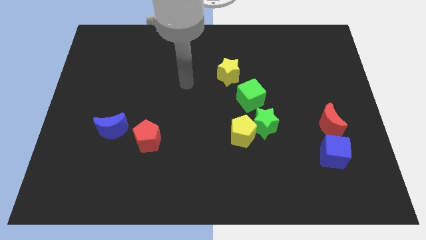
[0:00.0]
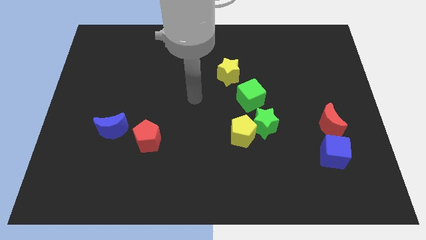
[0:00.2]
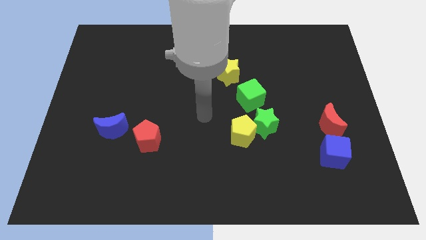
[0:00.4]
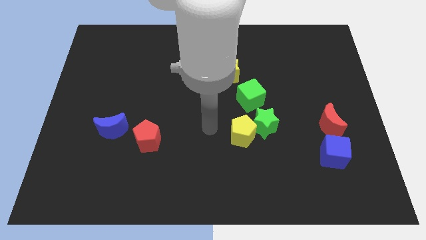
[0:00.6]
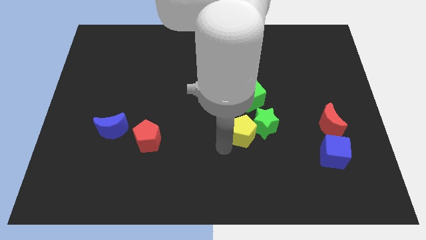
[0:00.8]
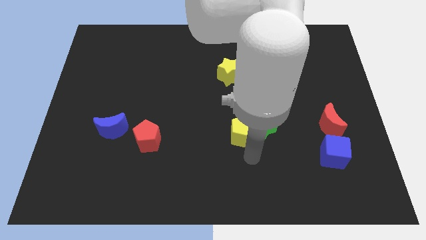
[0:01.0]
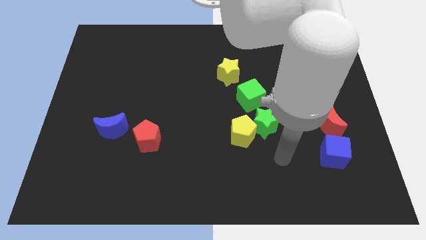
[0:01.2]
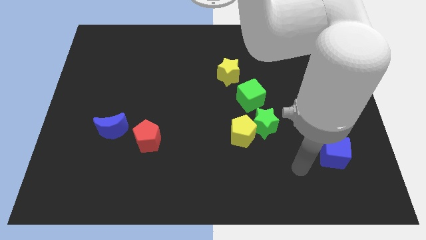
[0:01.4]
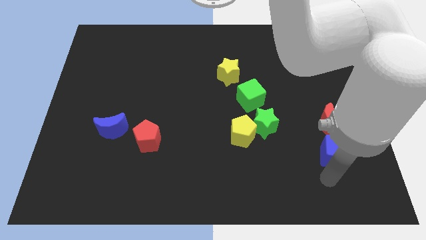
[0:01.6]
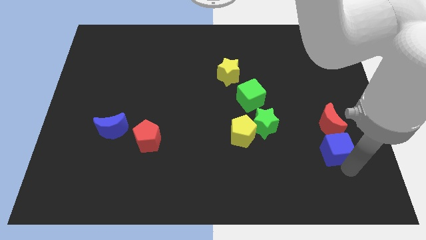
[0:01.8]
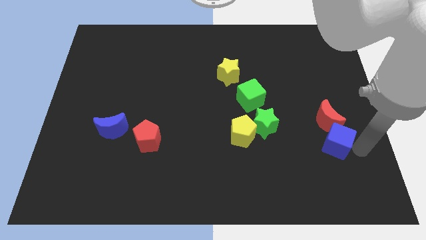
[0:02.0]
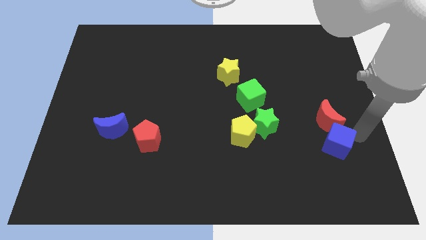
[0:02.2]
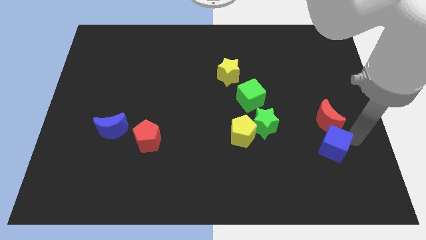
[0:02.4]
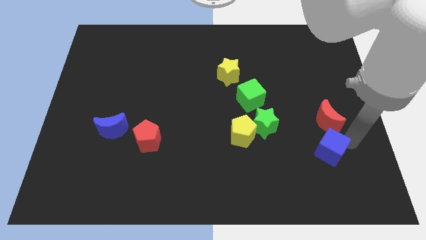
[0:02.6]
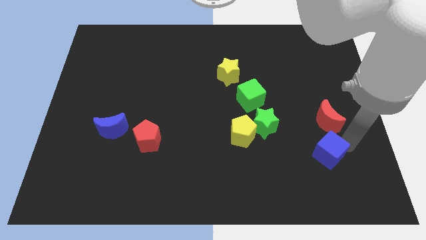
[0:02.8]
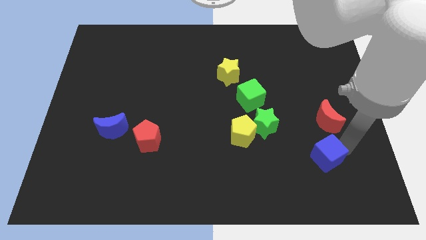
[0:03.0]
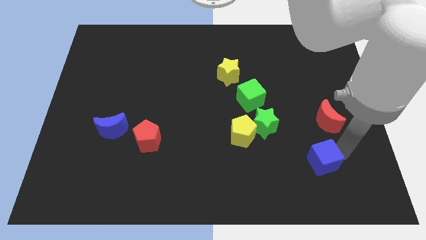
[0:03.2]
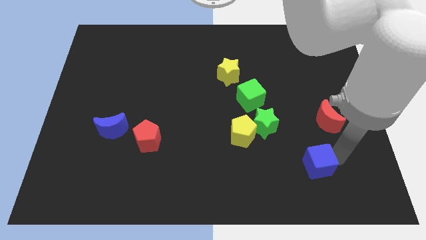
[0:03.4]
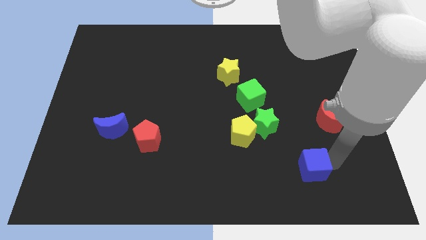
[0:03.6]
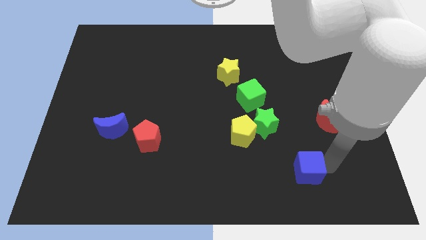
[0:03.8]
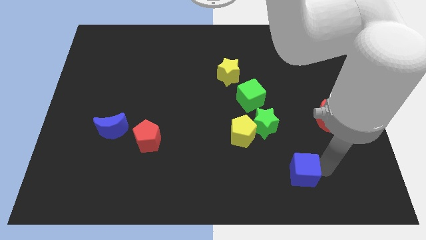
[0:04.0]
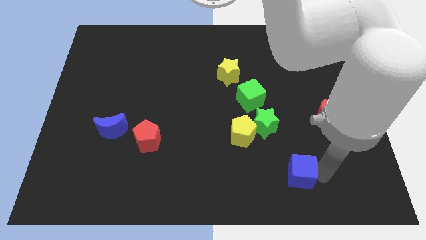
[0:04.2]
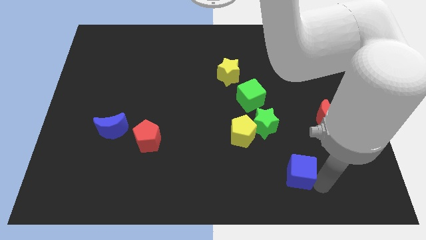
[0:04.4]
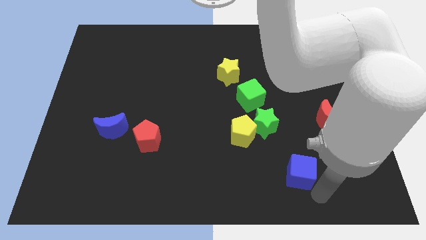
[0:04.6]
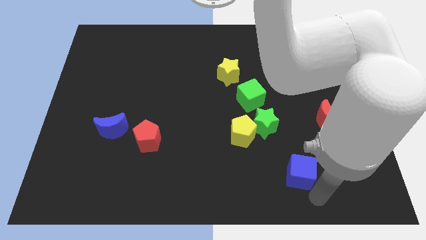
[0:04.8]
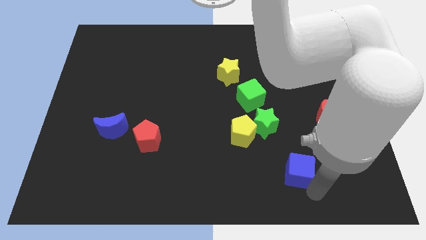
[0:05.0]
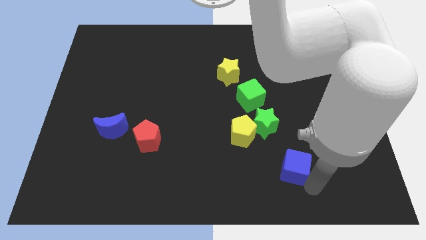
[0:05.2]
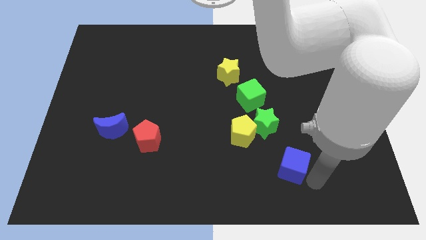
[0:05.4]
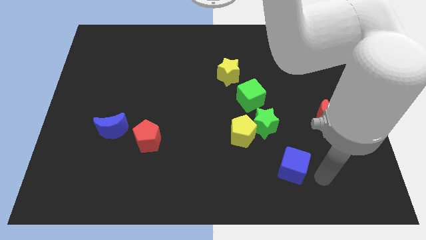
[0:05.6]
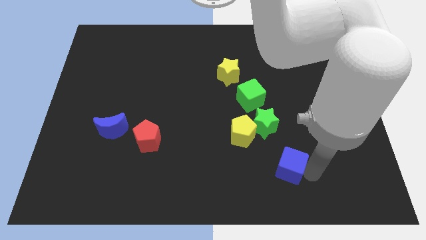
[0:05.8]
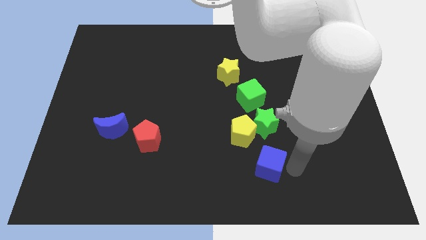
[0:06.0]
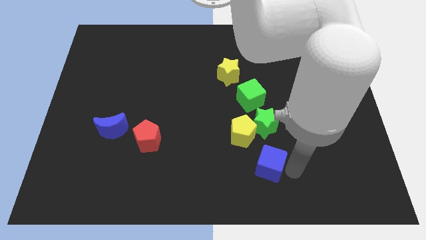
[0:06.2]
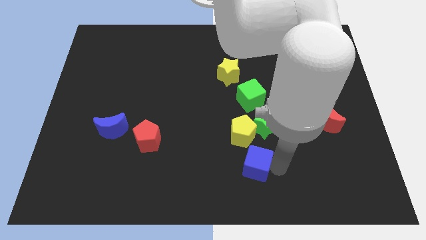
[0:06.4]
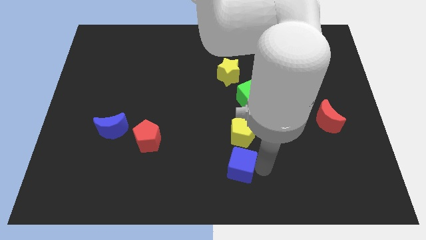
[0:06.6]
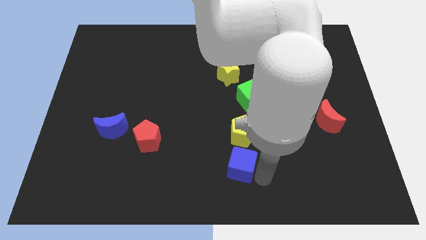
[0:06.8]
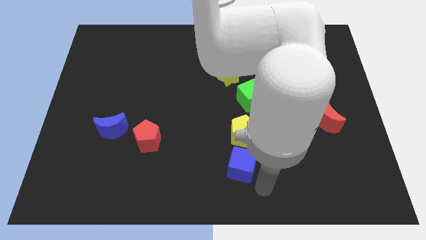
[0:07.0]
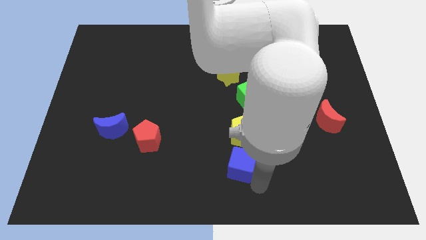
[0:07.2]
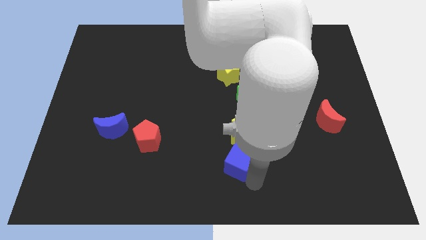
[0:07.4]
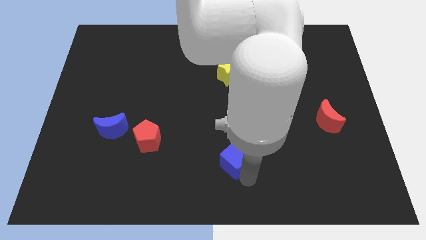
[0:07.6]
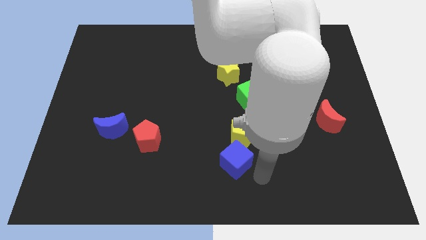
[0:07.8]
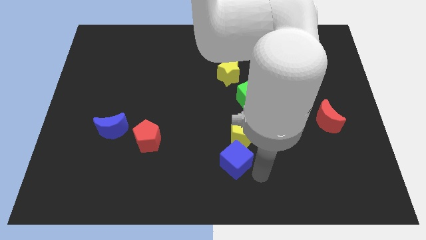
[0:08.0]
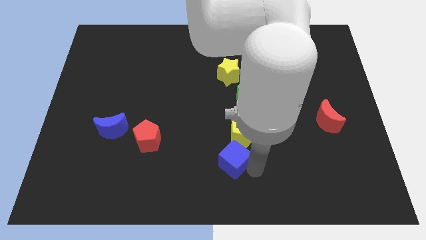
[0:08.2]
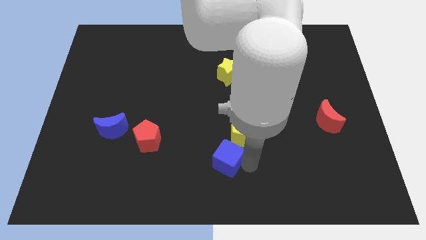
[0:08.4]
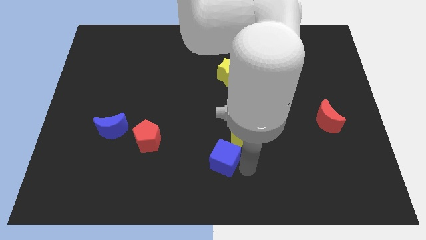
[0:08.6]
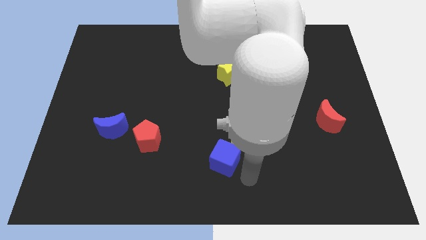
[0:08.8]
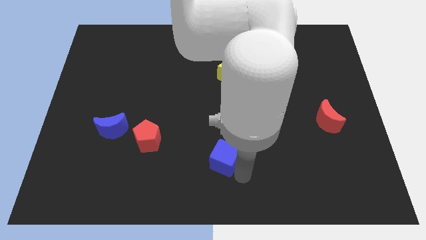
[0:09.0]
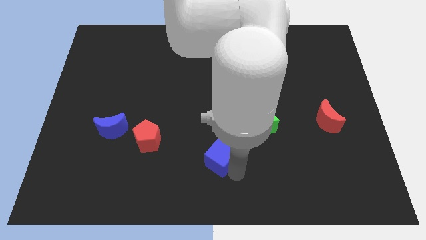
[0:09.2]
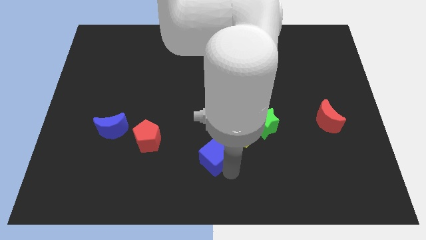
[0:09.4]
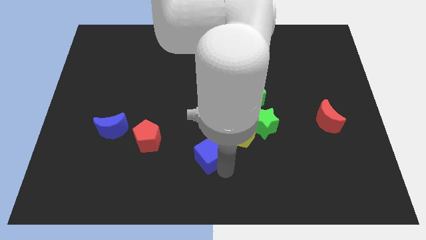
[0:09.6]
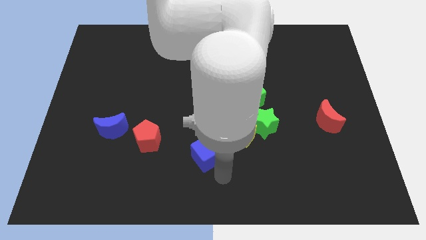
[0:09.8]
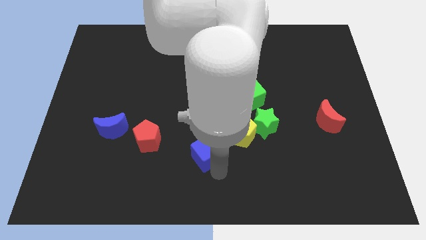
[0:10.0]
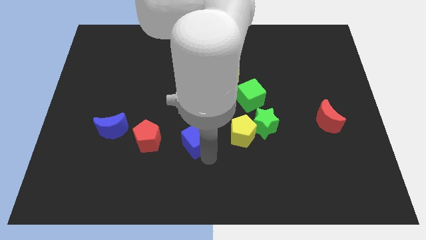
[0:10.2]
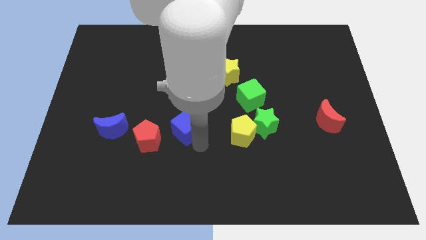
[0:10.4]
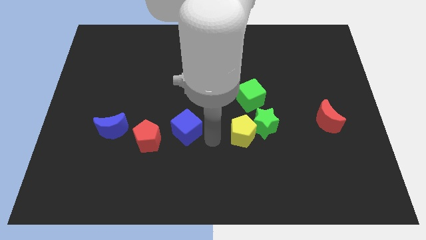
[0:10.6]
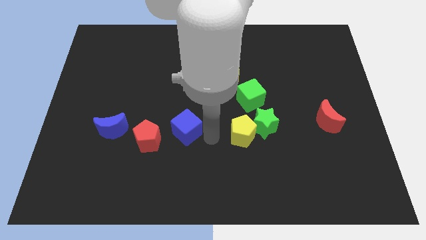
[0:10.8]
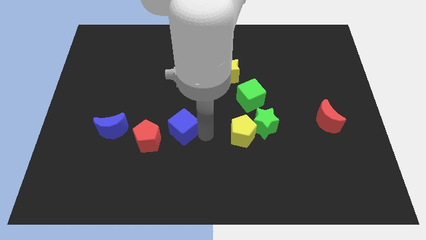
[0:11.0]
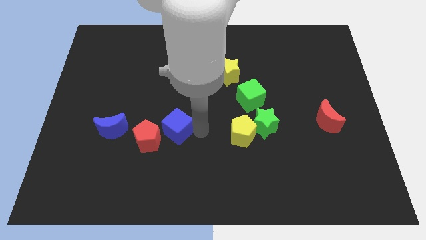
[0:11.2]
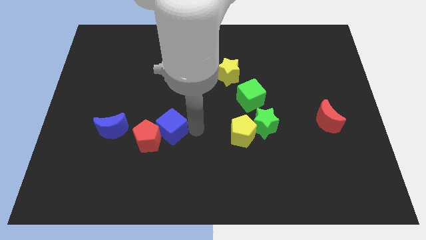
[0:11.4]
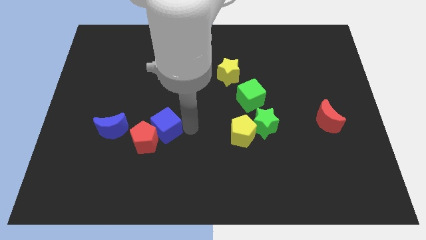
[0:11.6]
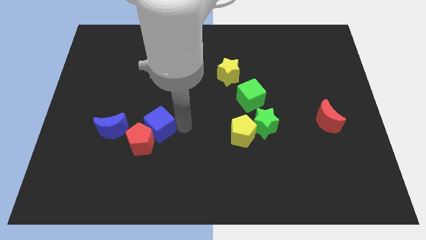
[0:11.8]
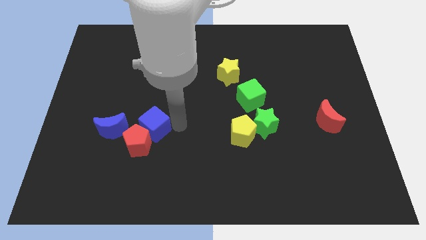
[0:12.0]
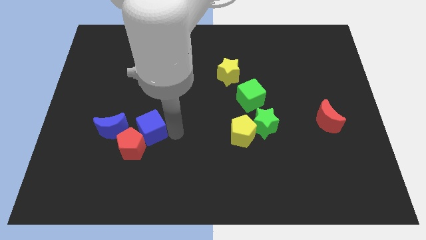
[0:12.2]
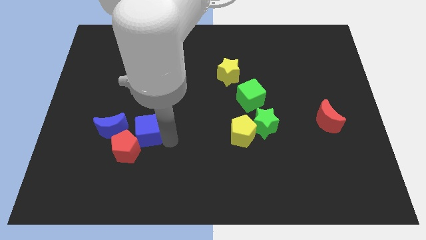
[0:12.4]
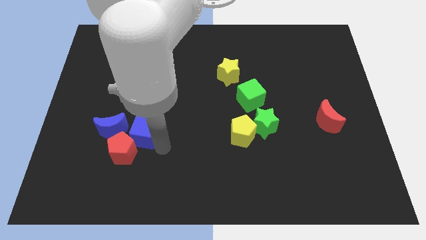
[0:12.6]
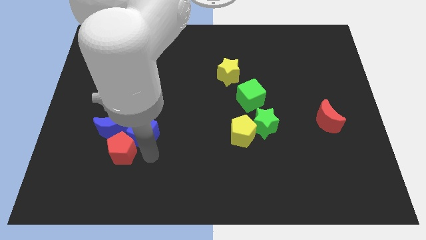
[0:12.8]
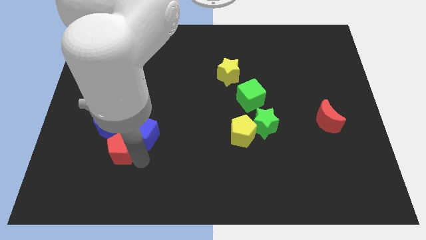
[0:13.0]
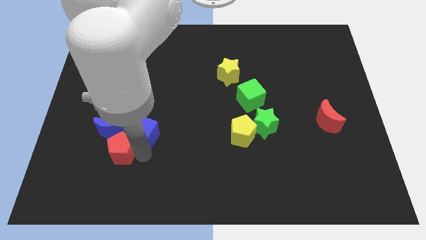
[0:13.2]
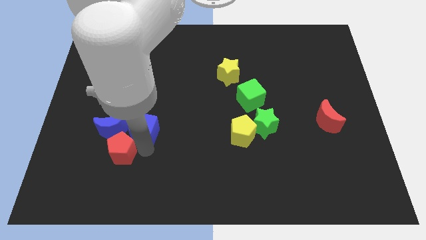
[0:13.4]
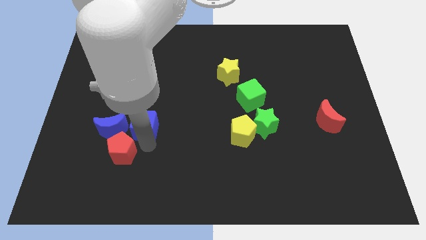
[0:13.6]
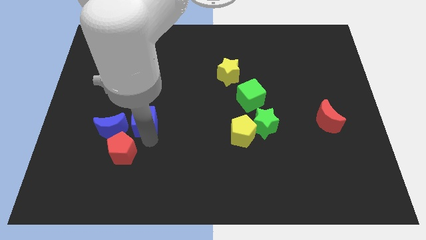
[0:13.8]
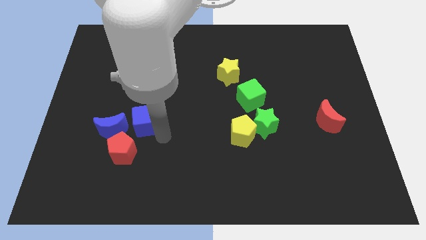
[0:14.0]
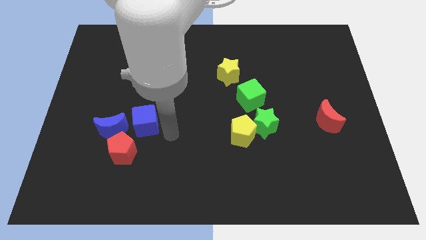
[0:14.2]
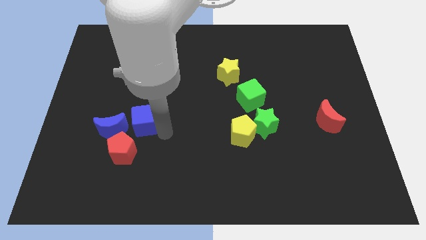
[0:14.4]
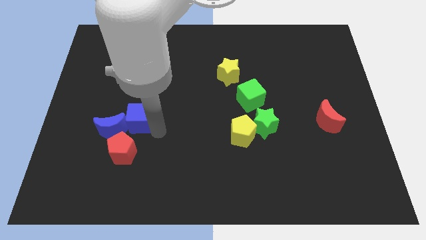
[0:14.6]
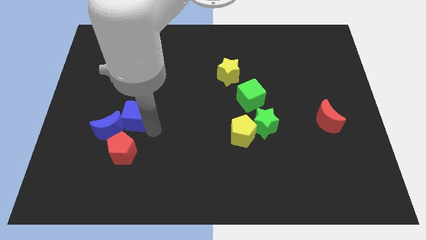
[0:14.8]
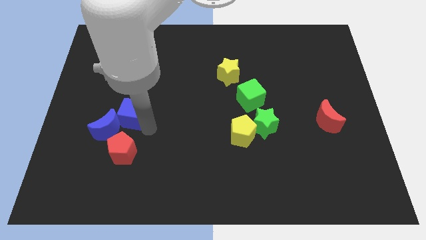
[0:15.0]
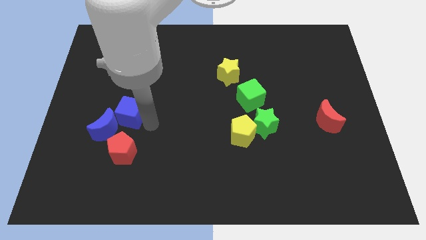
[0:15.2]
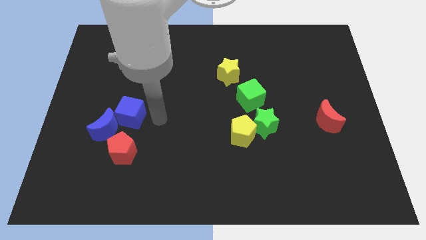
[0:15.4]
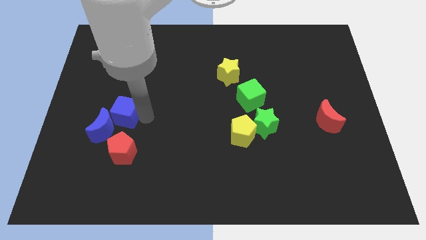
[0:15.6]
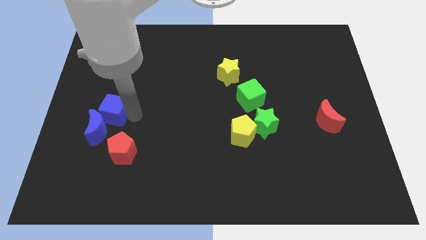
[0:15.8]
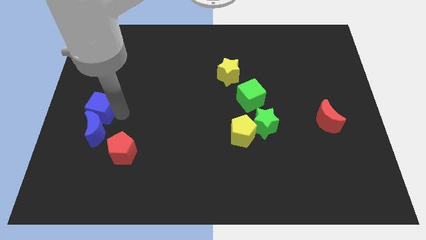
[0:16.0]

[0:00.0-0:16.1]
push the blue cube to the left side
